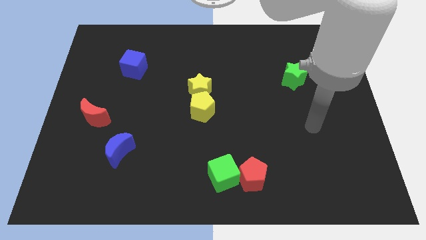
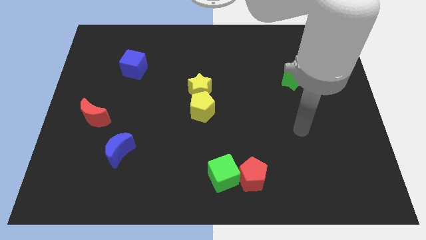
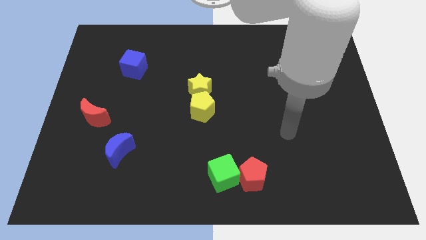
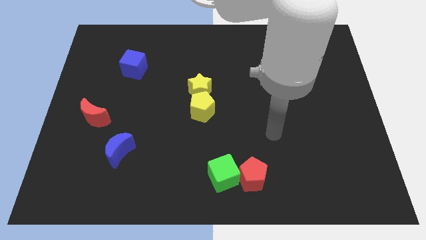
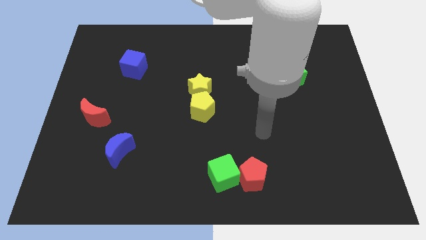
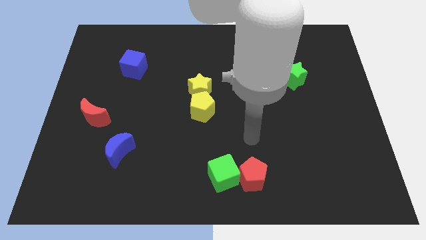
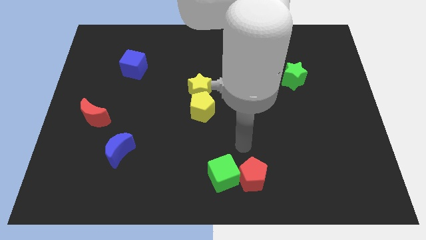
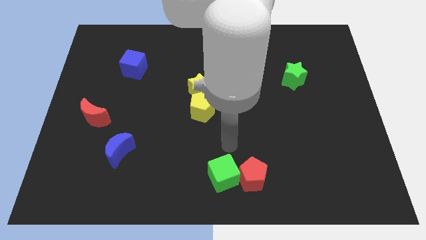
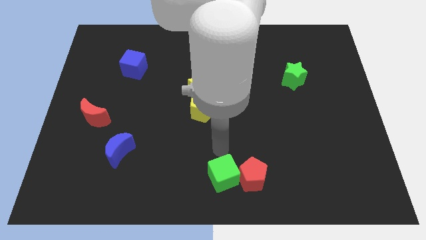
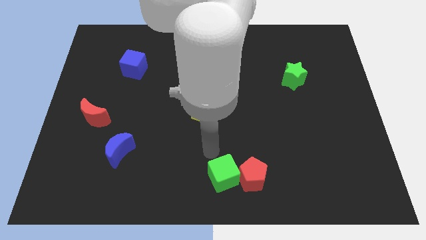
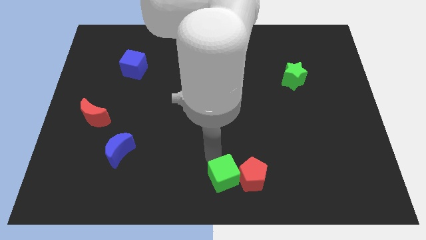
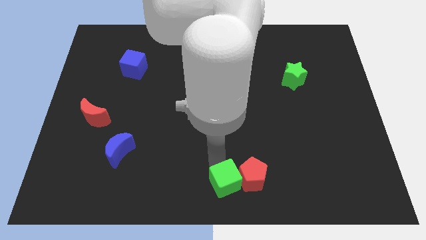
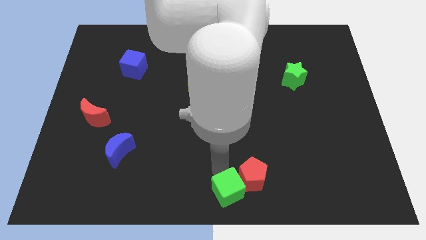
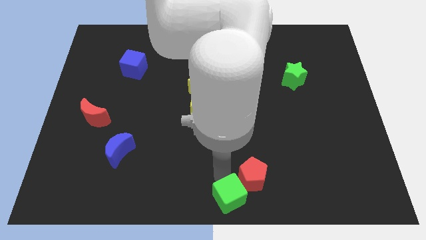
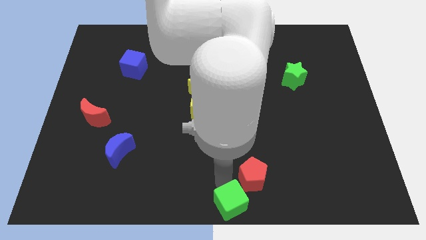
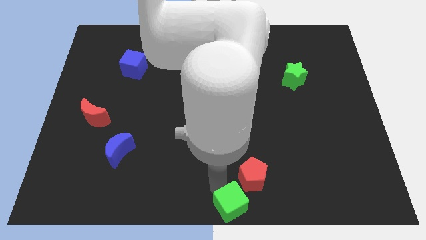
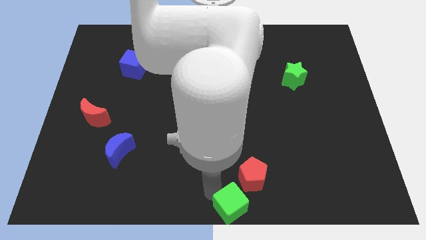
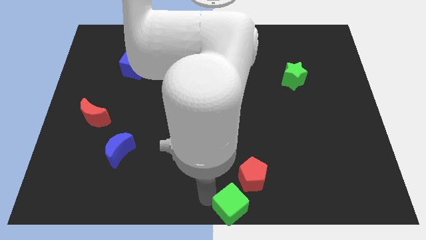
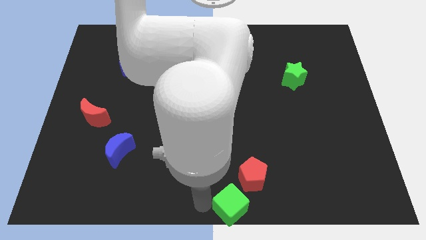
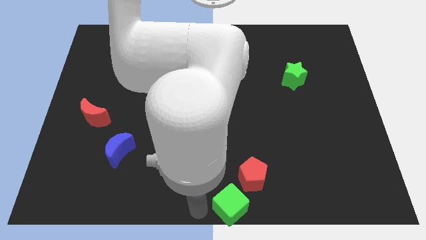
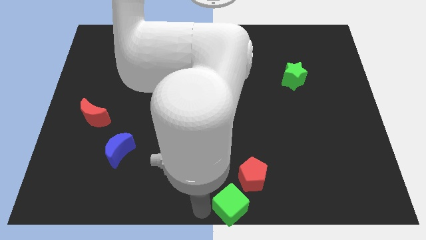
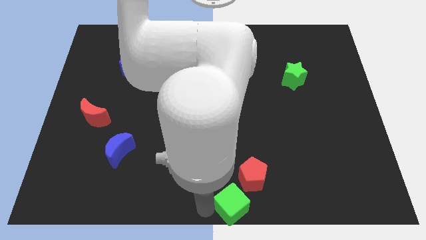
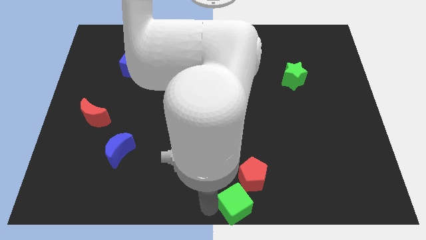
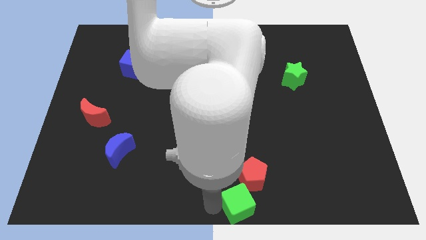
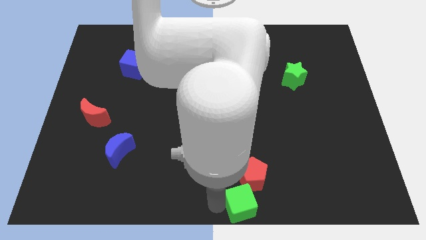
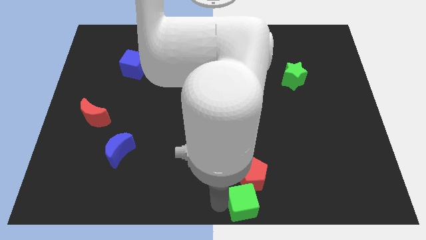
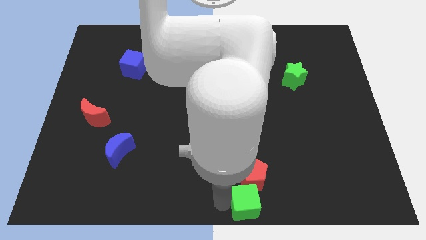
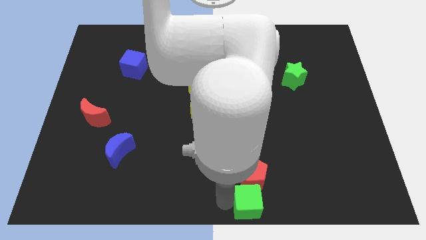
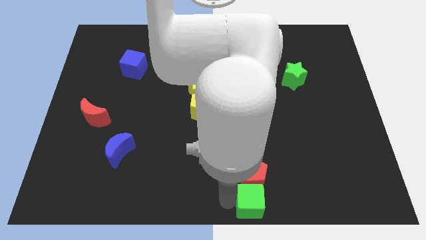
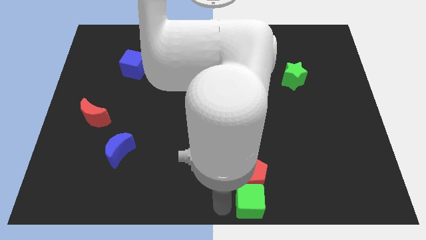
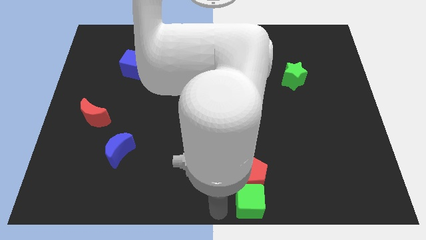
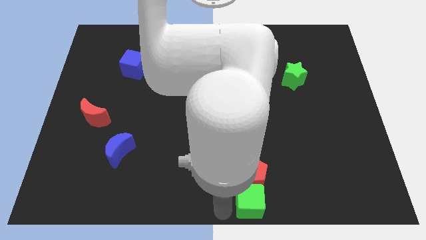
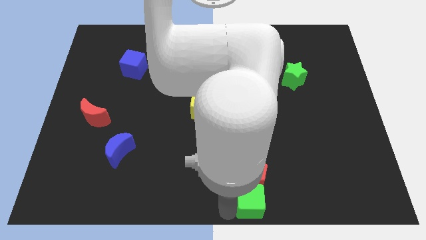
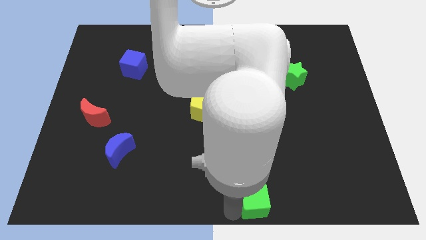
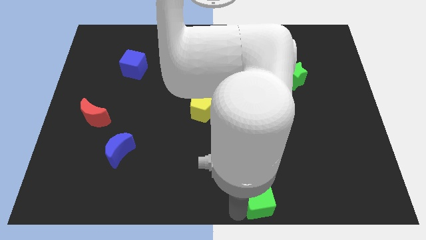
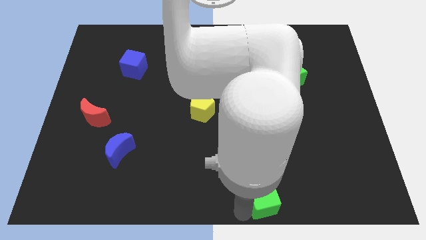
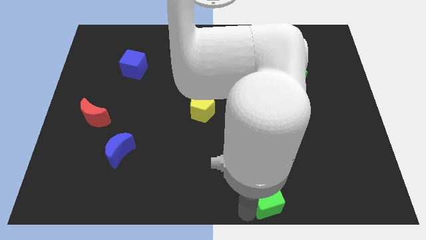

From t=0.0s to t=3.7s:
slide the green cube a little bit to the right

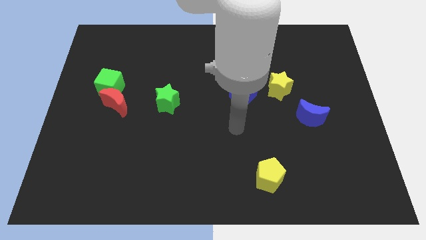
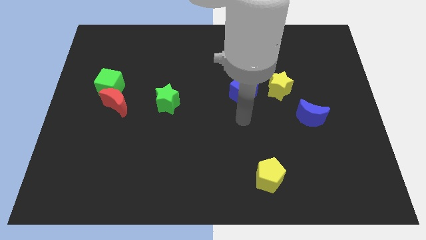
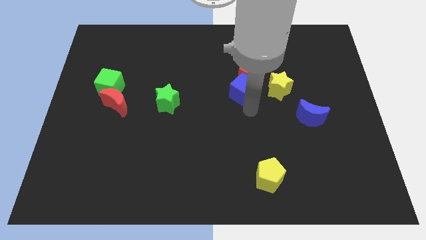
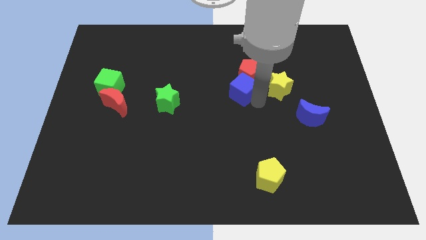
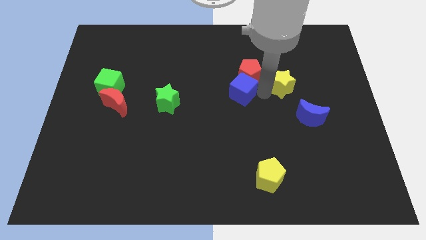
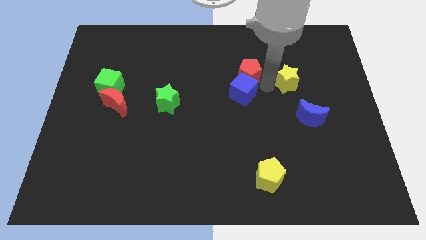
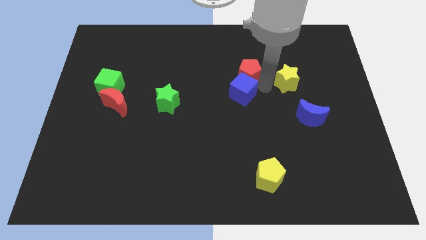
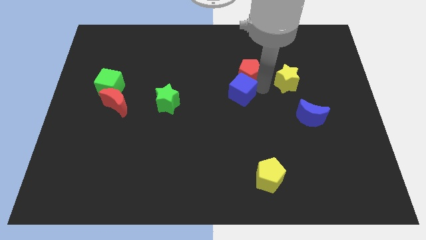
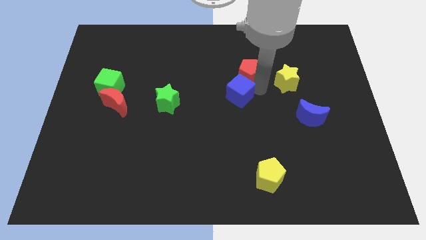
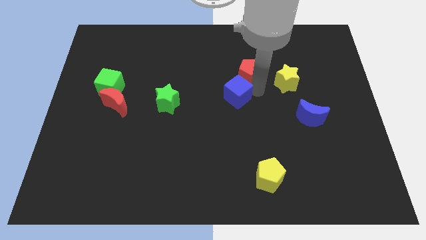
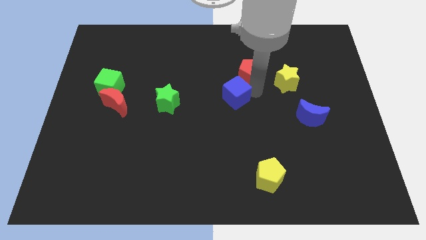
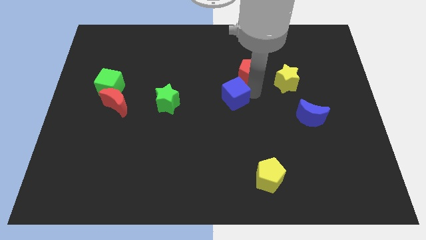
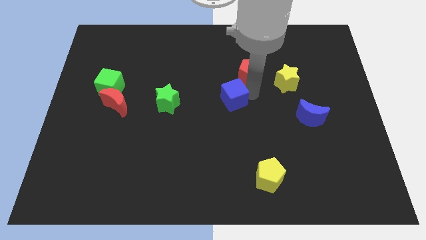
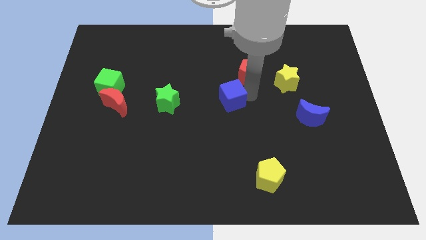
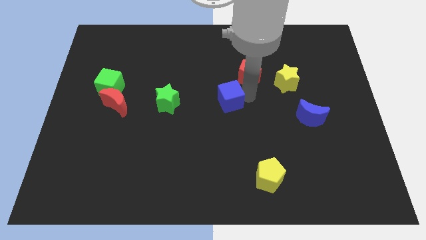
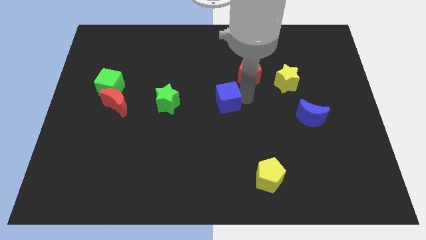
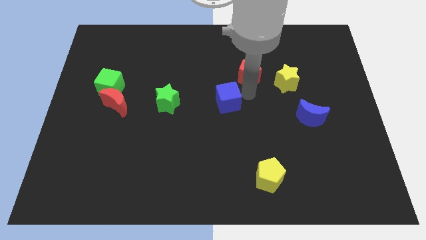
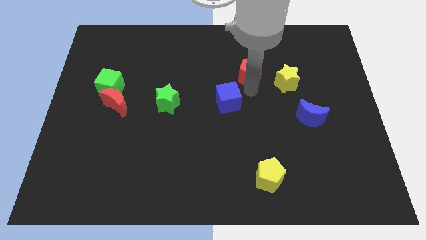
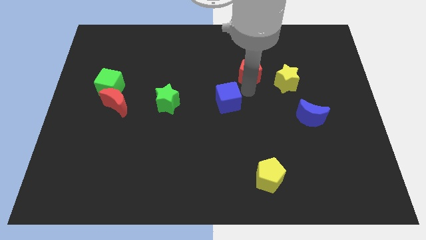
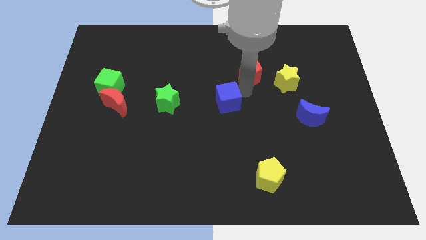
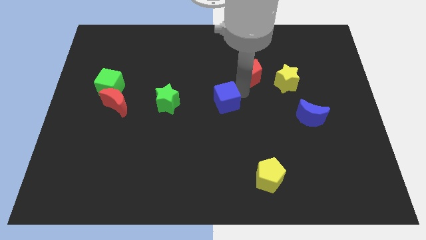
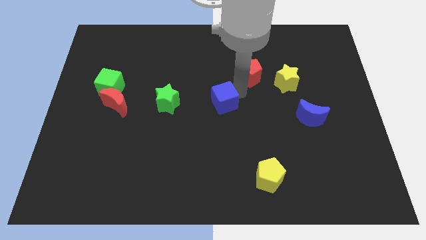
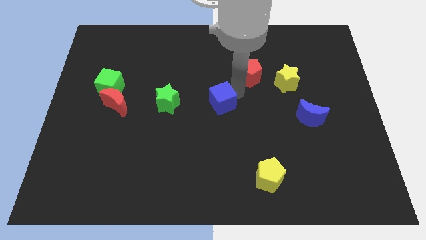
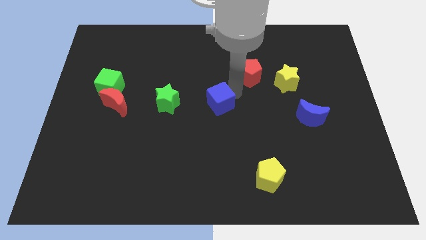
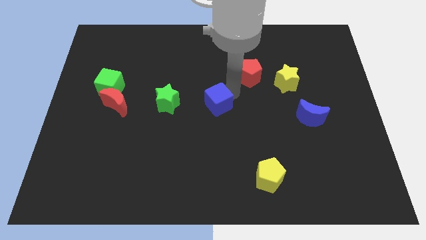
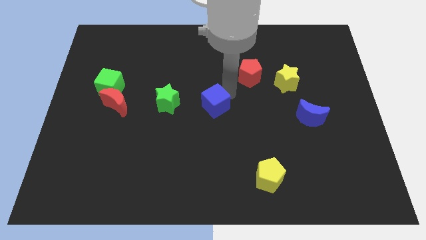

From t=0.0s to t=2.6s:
move the blue cube diagonally down and left a little

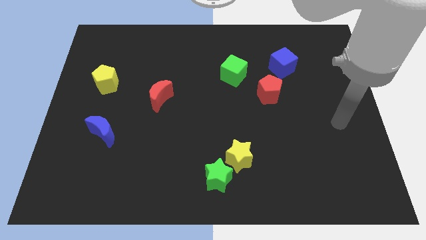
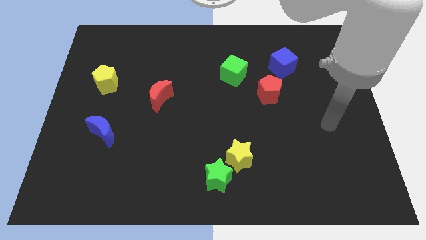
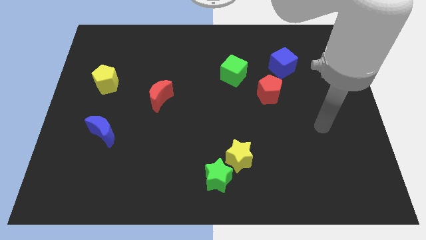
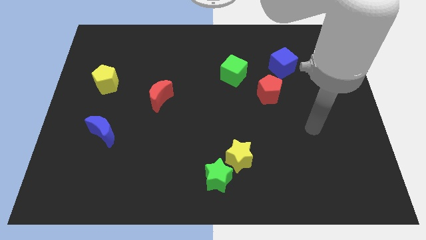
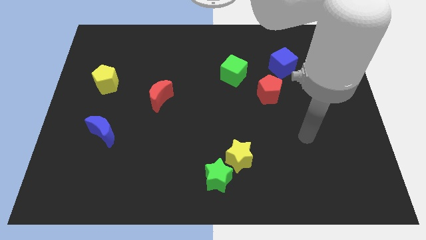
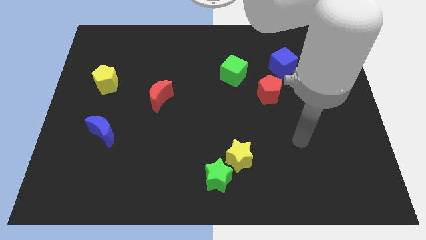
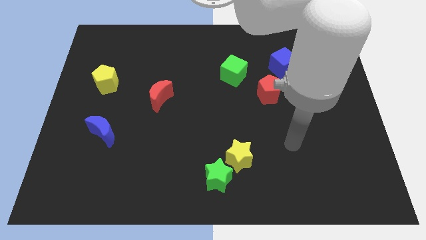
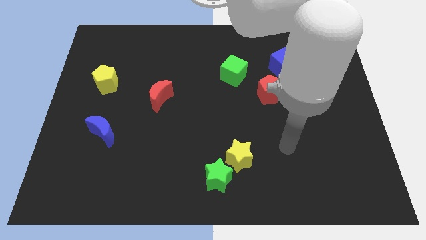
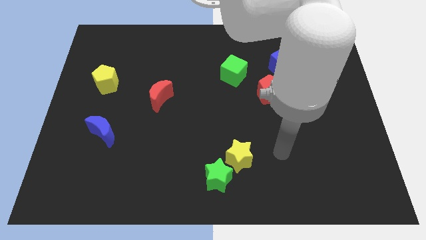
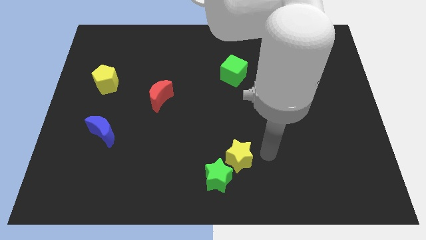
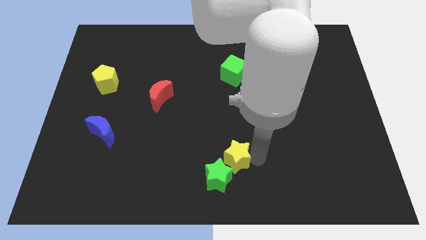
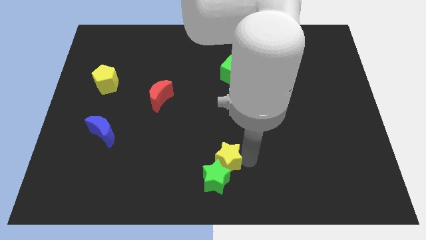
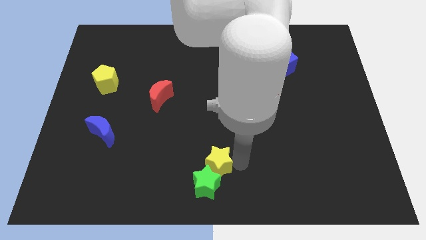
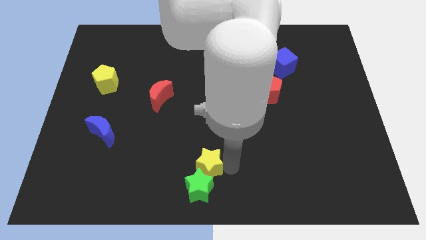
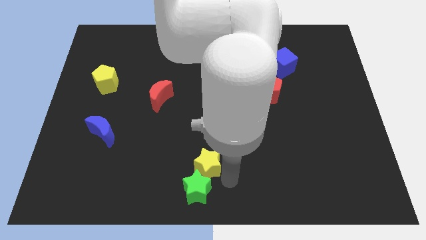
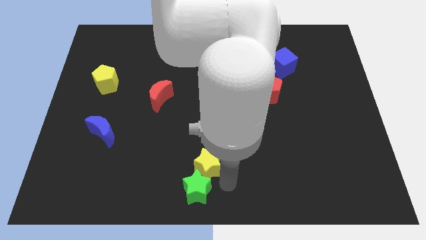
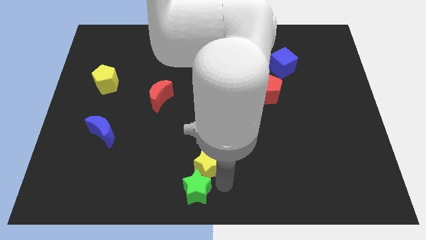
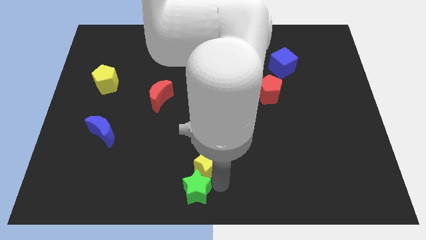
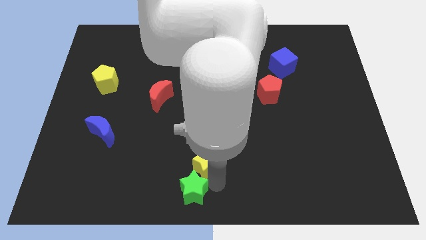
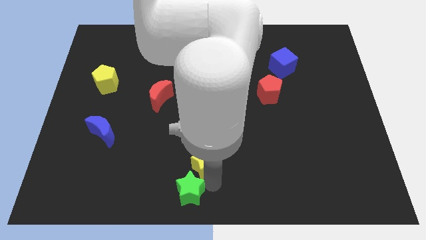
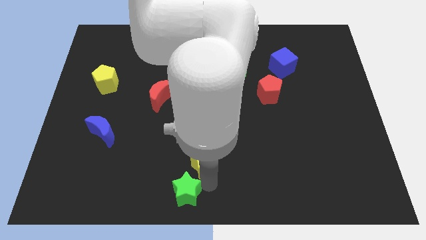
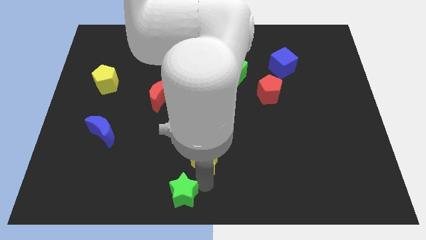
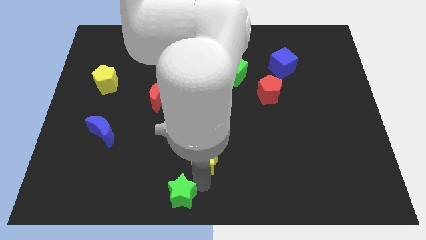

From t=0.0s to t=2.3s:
slide the green star left a little bit
